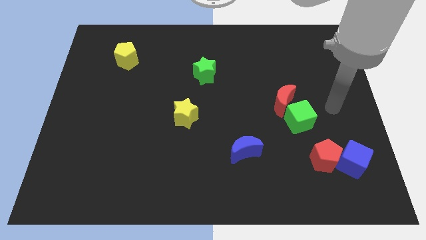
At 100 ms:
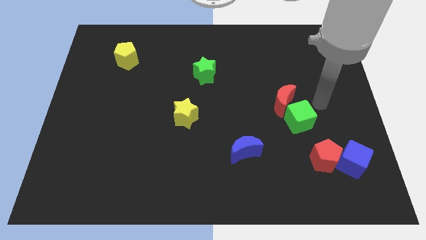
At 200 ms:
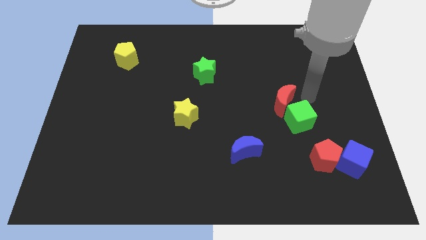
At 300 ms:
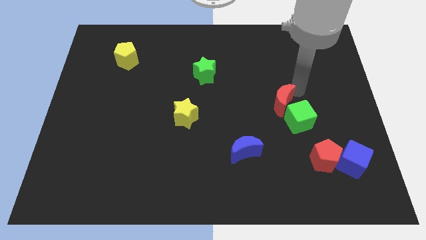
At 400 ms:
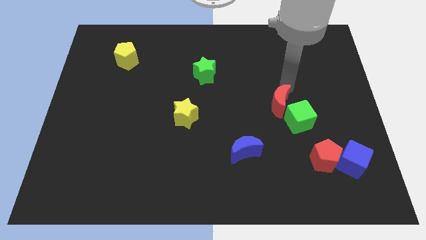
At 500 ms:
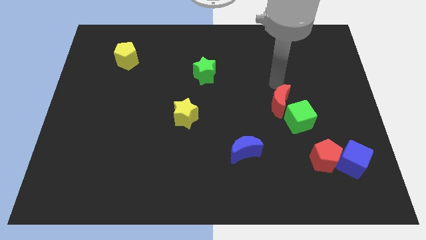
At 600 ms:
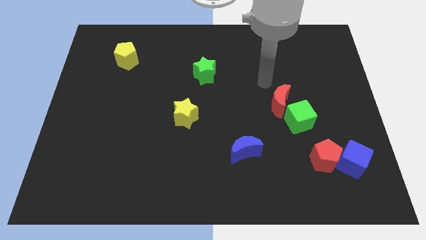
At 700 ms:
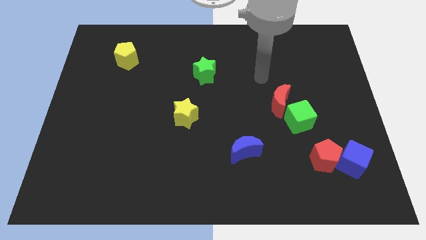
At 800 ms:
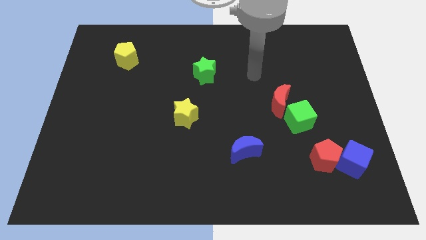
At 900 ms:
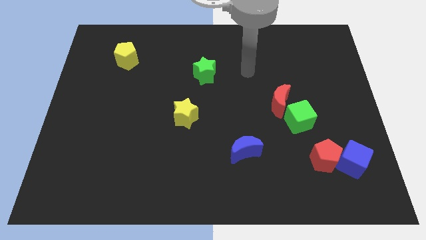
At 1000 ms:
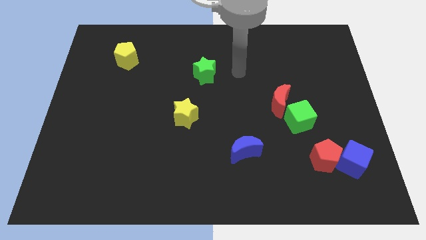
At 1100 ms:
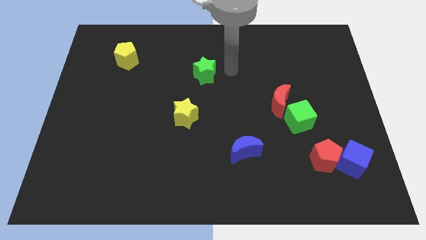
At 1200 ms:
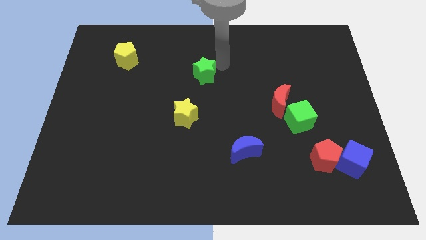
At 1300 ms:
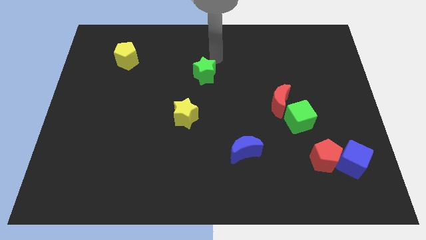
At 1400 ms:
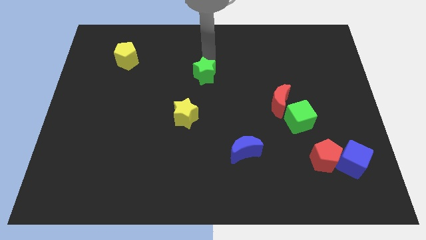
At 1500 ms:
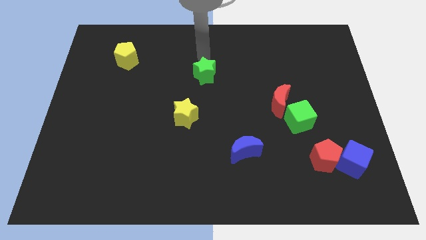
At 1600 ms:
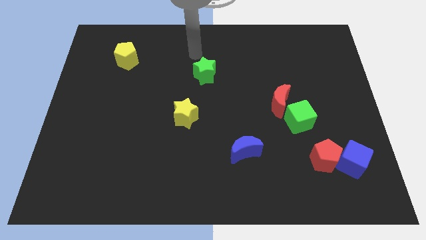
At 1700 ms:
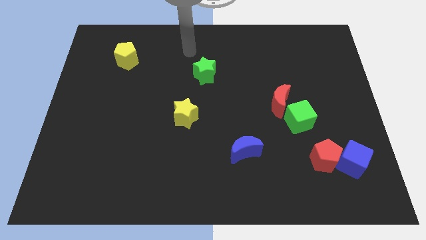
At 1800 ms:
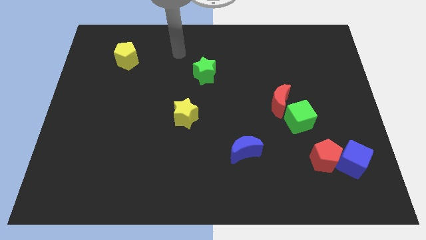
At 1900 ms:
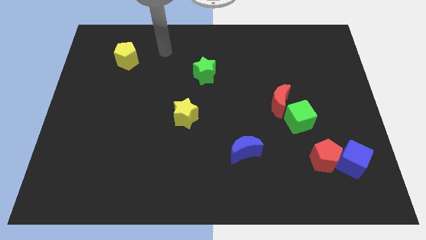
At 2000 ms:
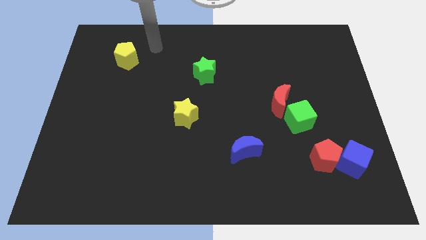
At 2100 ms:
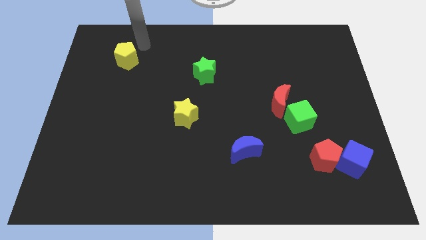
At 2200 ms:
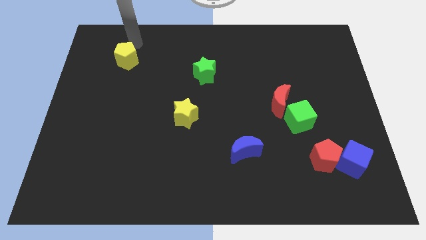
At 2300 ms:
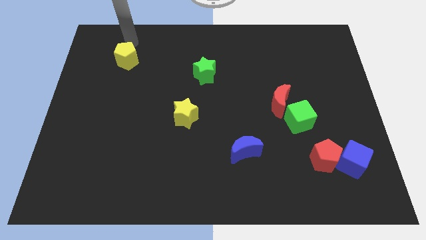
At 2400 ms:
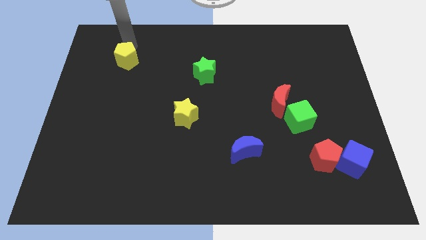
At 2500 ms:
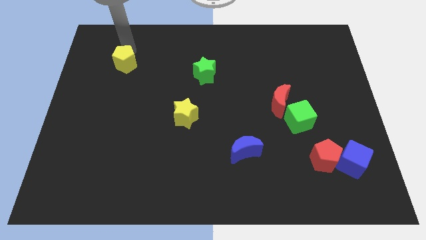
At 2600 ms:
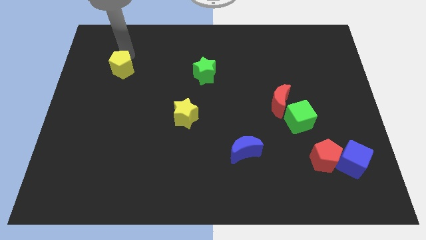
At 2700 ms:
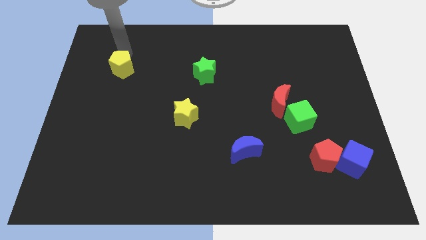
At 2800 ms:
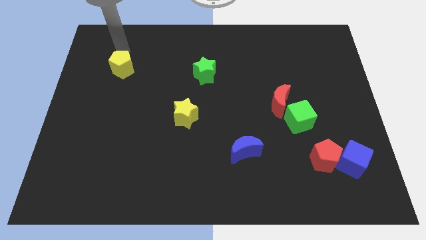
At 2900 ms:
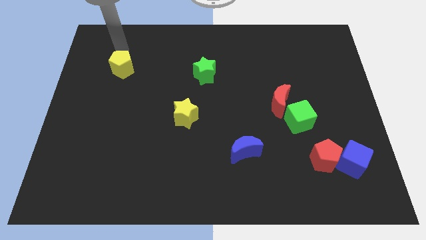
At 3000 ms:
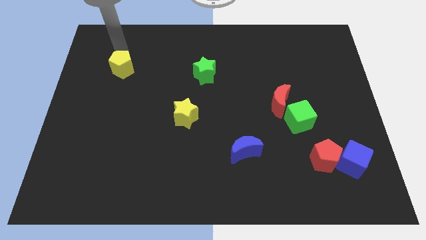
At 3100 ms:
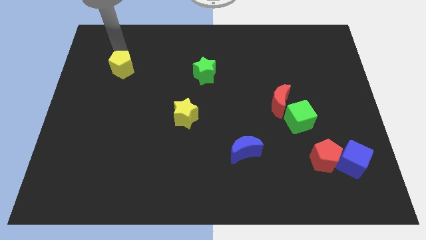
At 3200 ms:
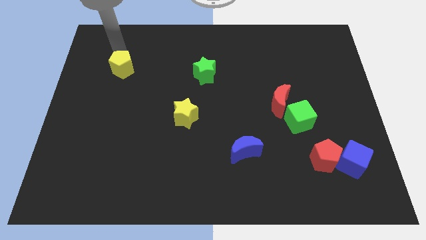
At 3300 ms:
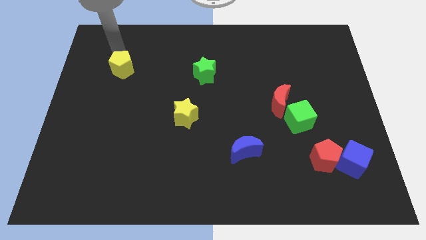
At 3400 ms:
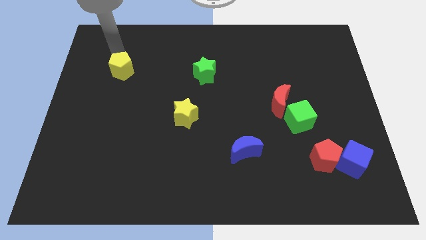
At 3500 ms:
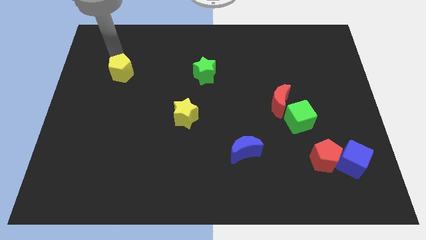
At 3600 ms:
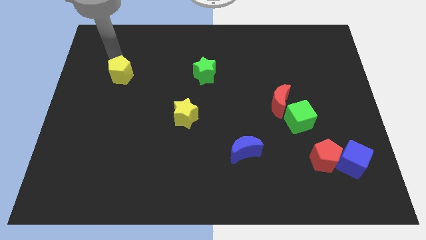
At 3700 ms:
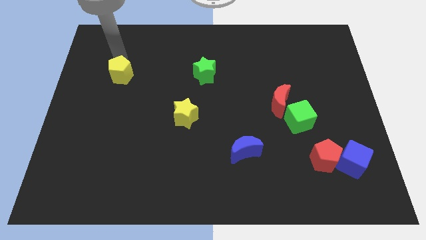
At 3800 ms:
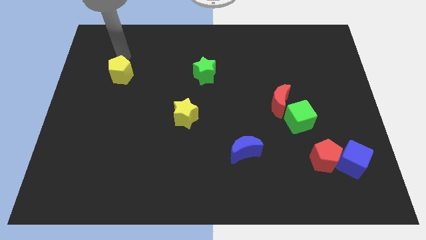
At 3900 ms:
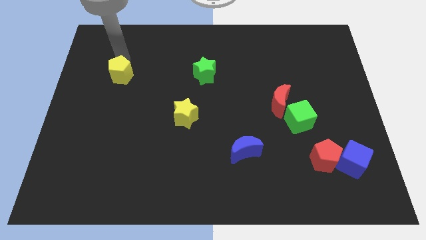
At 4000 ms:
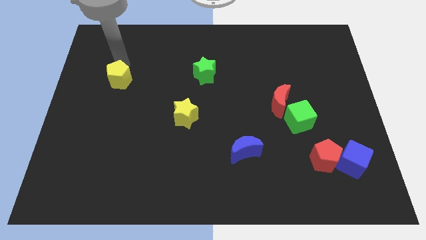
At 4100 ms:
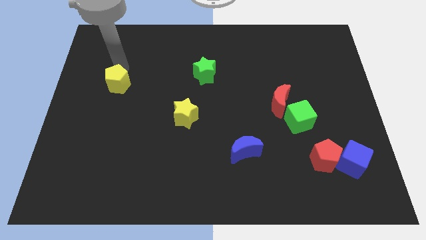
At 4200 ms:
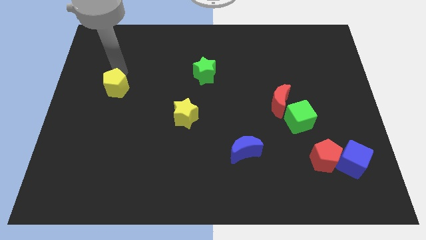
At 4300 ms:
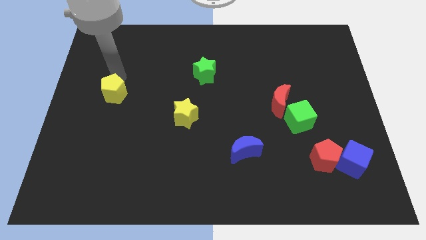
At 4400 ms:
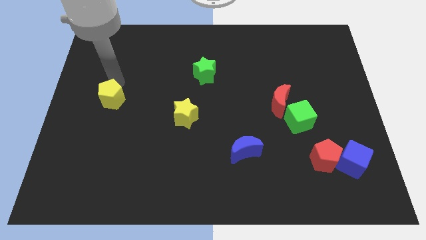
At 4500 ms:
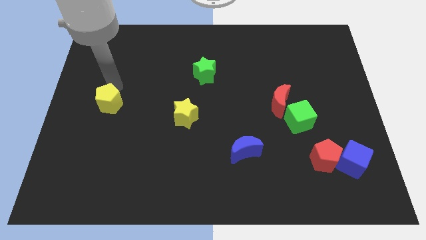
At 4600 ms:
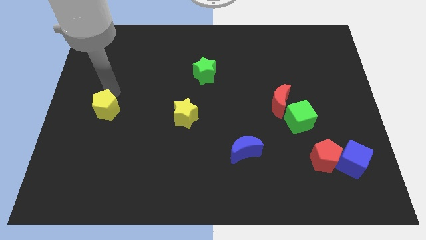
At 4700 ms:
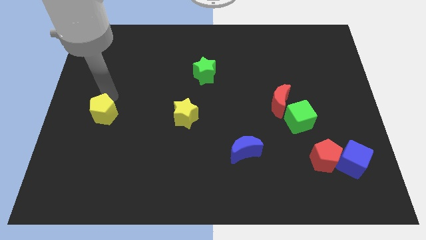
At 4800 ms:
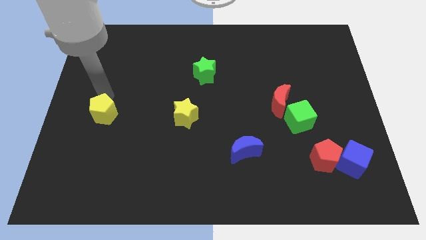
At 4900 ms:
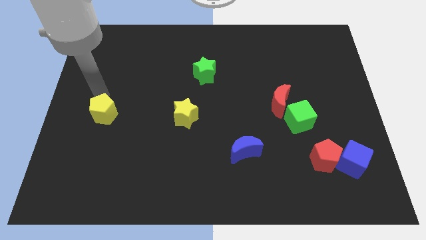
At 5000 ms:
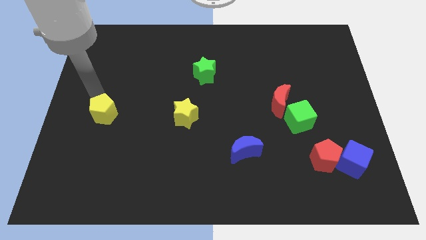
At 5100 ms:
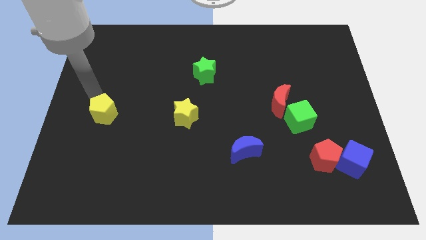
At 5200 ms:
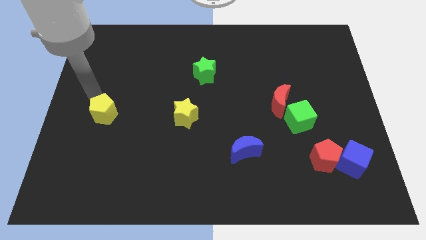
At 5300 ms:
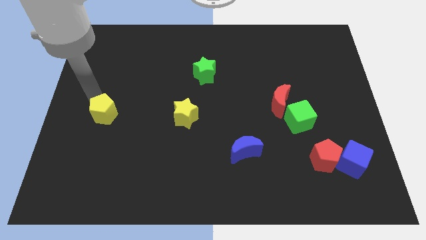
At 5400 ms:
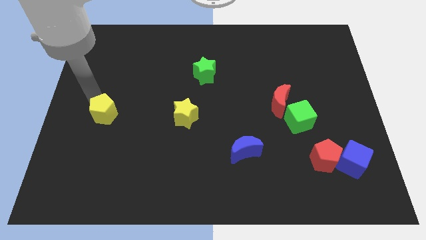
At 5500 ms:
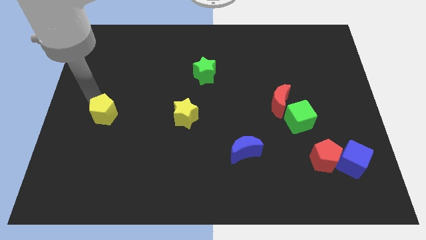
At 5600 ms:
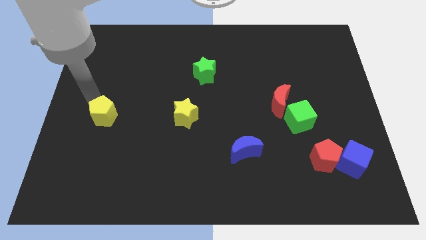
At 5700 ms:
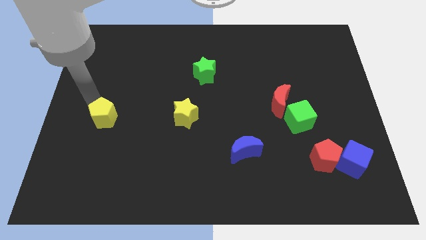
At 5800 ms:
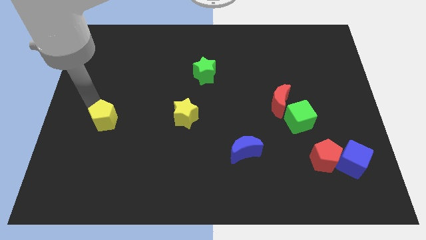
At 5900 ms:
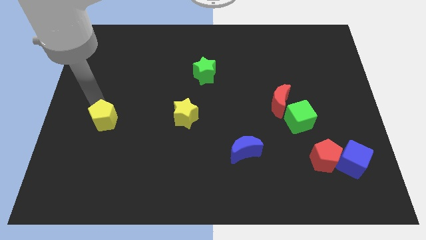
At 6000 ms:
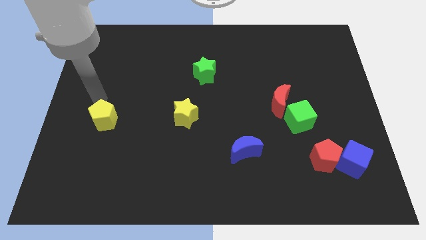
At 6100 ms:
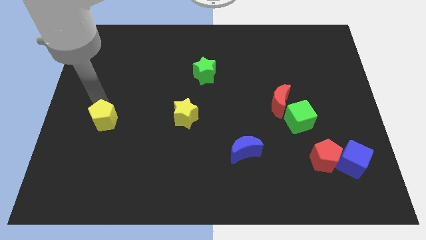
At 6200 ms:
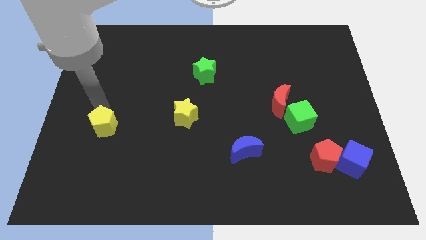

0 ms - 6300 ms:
move the yellow pentagon downwards

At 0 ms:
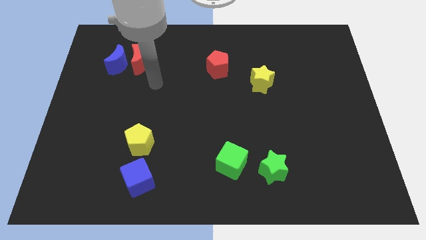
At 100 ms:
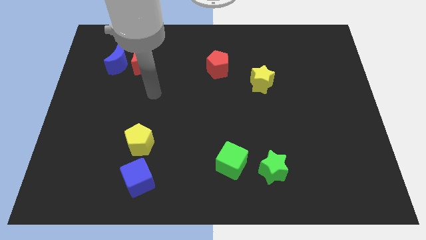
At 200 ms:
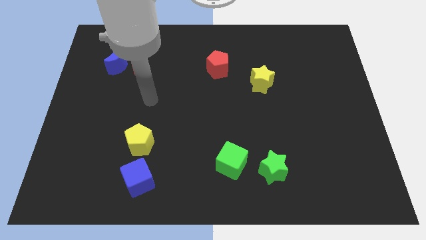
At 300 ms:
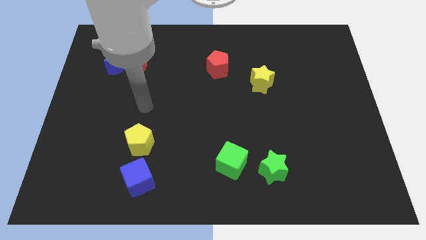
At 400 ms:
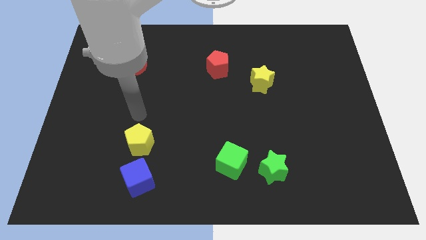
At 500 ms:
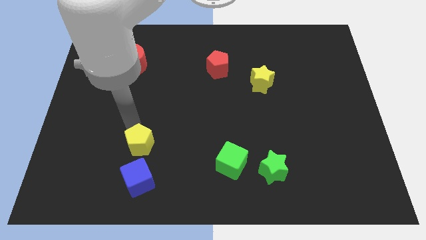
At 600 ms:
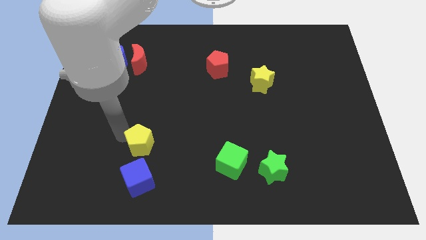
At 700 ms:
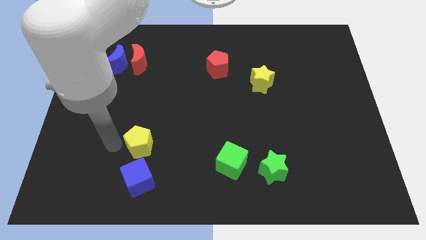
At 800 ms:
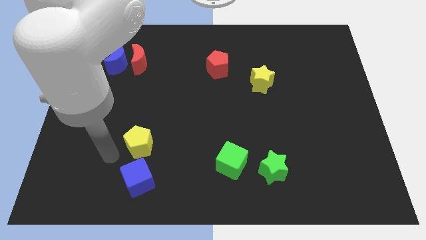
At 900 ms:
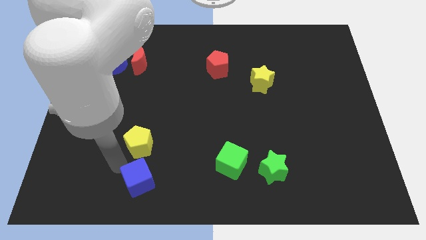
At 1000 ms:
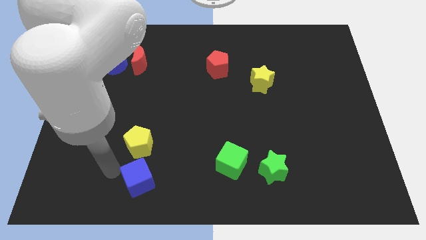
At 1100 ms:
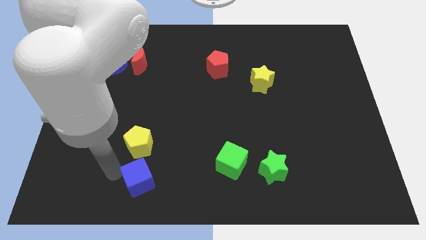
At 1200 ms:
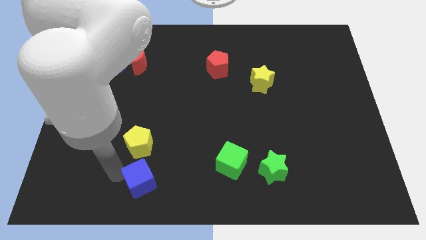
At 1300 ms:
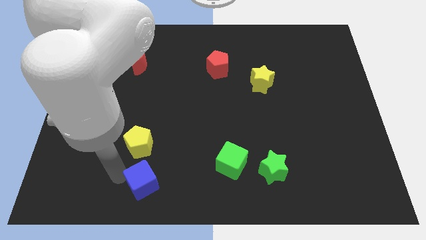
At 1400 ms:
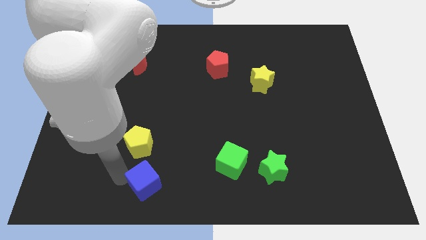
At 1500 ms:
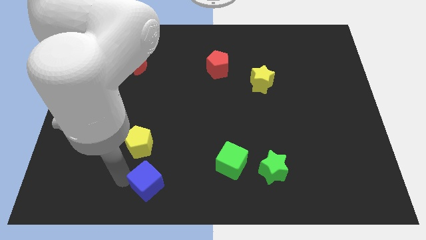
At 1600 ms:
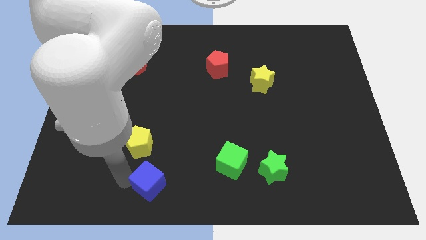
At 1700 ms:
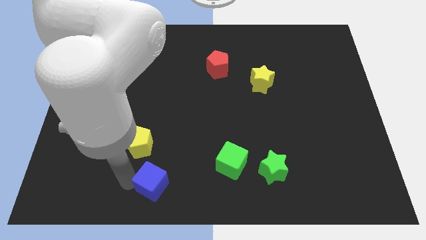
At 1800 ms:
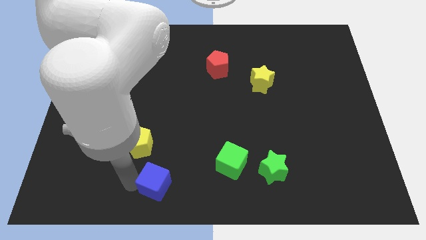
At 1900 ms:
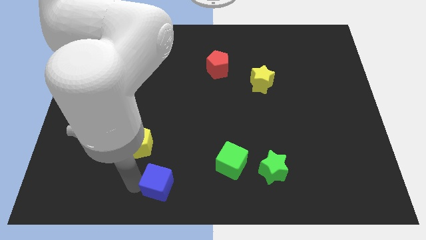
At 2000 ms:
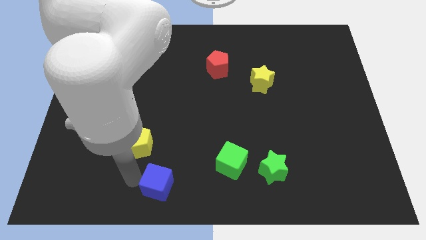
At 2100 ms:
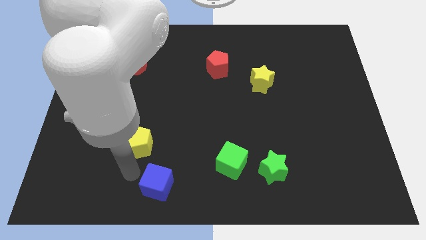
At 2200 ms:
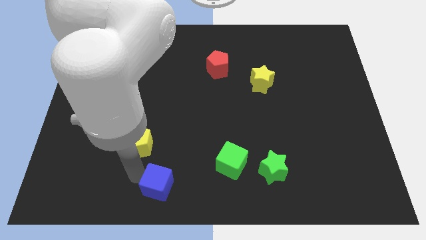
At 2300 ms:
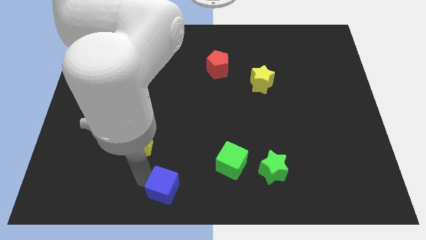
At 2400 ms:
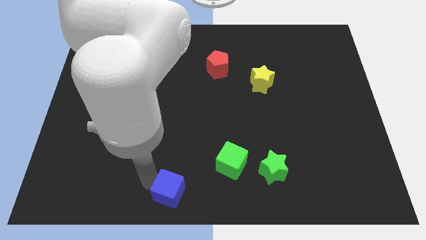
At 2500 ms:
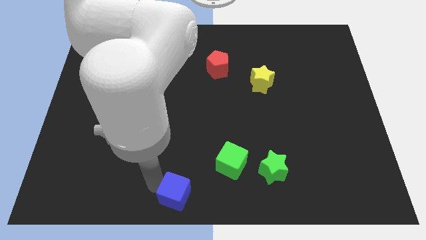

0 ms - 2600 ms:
move the blue cube somewhat right
